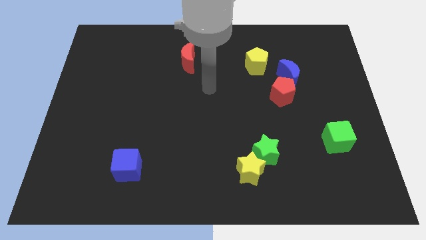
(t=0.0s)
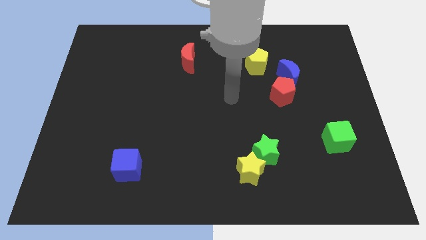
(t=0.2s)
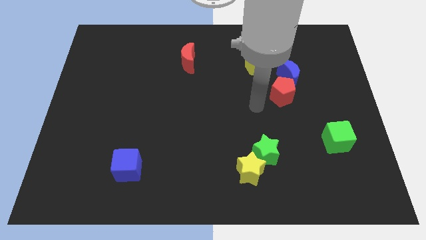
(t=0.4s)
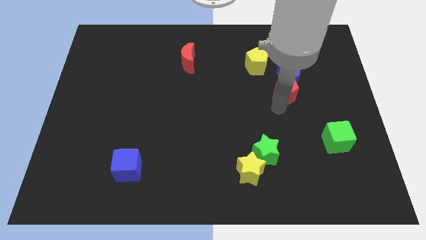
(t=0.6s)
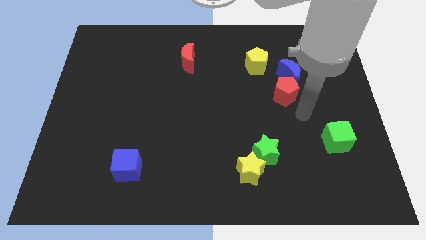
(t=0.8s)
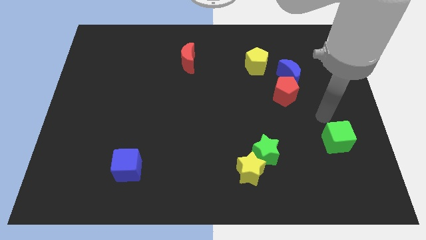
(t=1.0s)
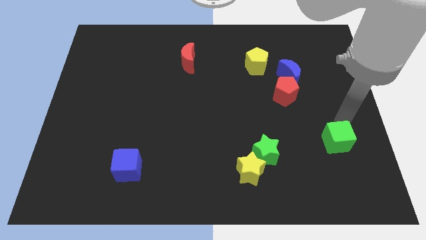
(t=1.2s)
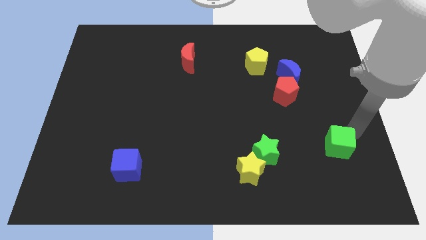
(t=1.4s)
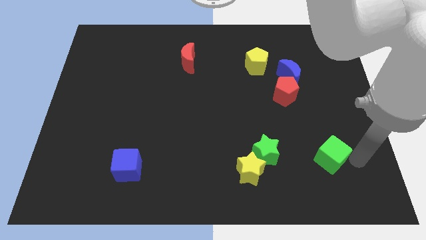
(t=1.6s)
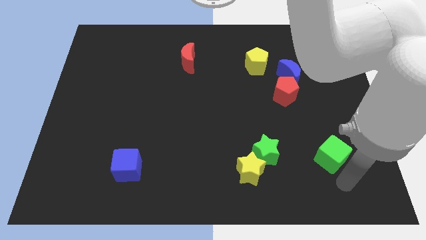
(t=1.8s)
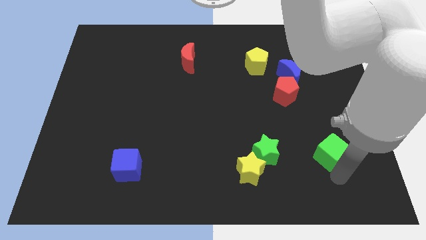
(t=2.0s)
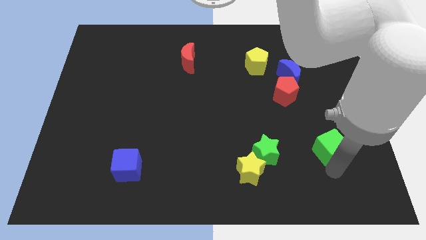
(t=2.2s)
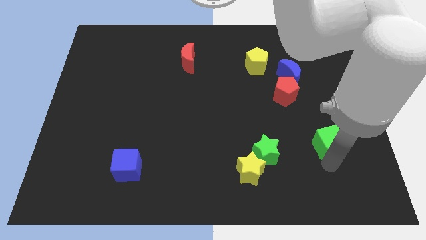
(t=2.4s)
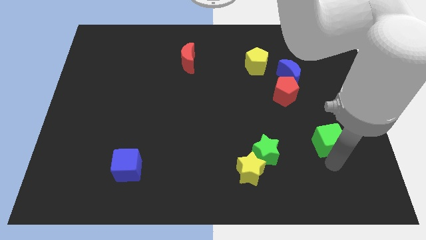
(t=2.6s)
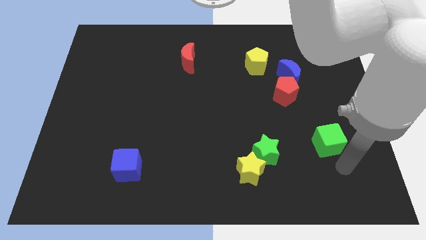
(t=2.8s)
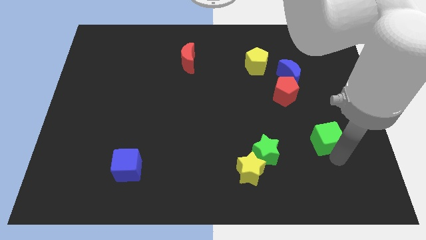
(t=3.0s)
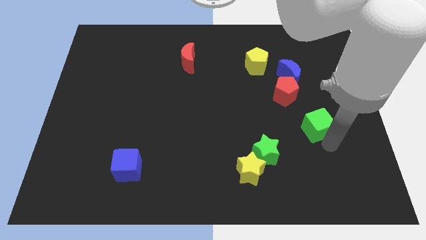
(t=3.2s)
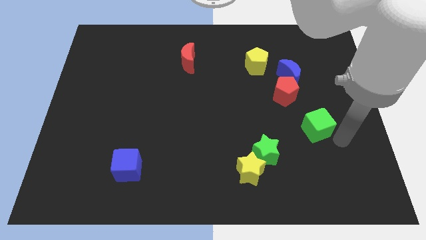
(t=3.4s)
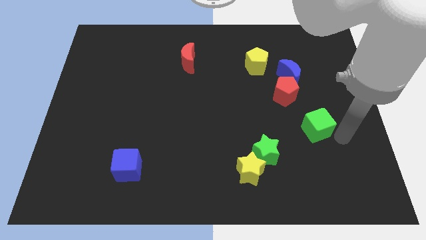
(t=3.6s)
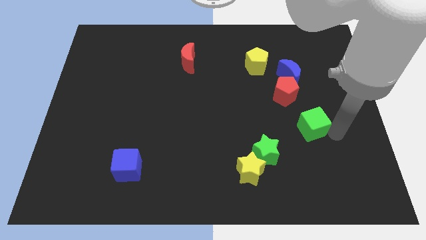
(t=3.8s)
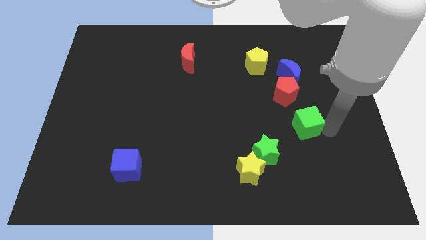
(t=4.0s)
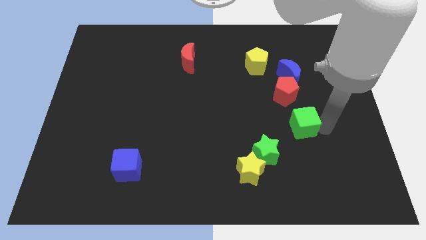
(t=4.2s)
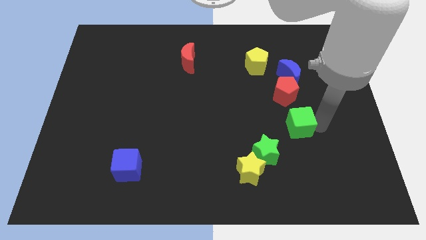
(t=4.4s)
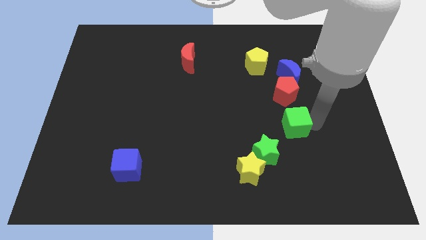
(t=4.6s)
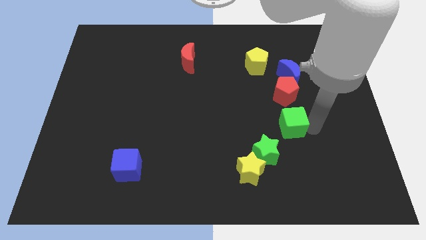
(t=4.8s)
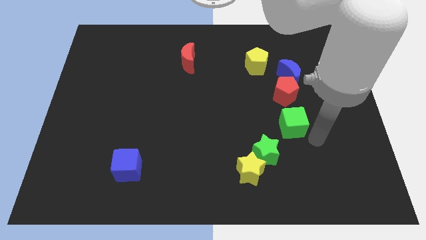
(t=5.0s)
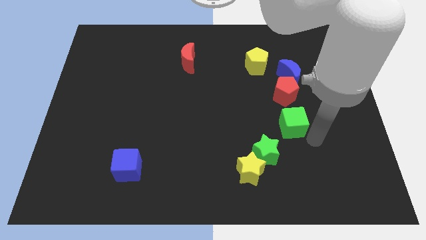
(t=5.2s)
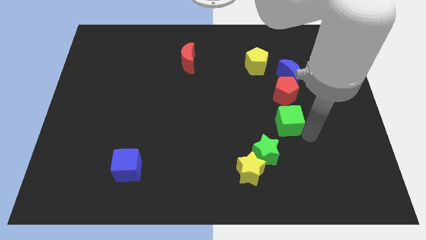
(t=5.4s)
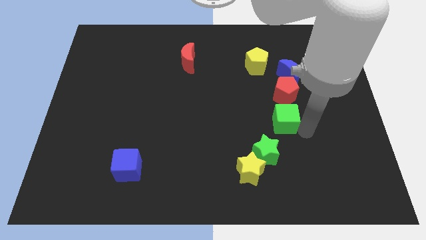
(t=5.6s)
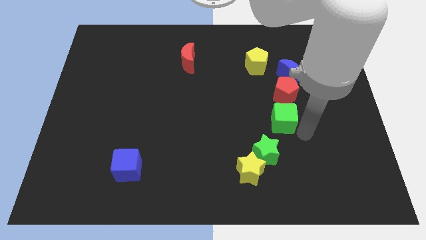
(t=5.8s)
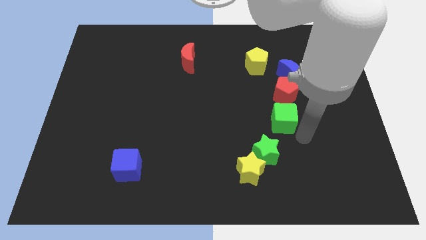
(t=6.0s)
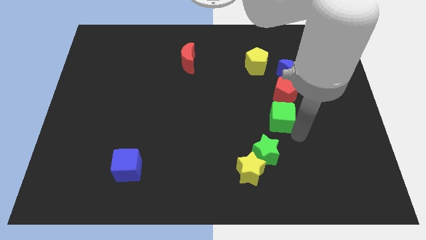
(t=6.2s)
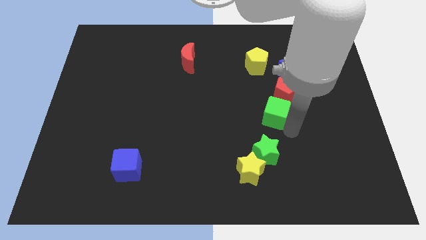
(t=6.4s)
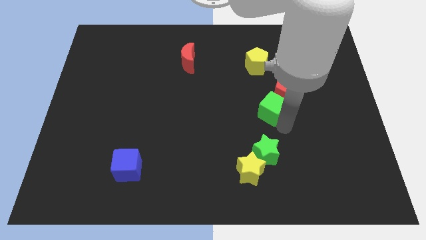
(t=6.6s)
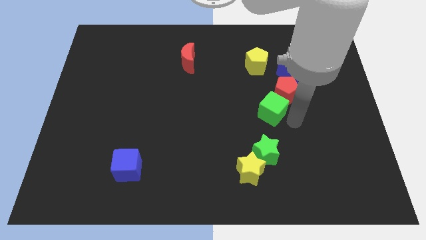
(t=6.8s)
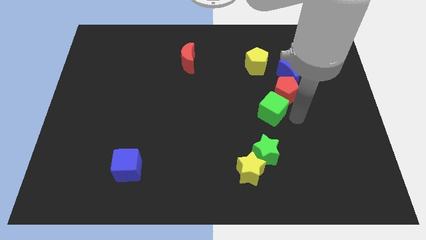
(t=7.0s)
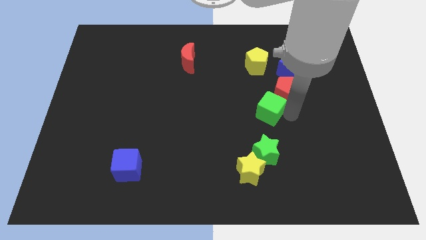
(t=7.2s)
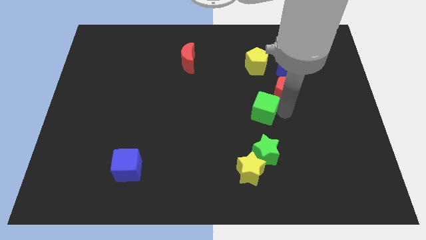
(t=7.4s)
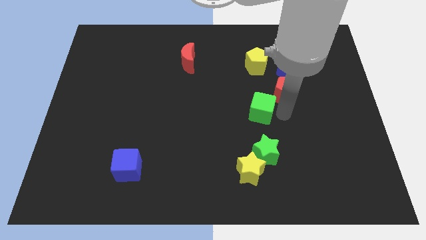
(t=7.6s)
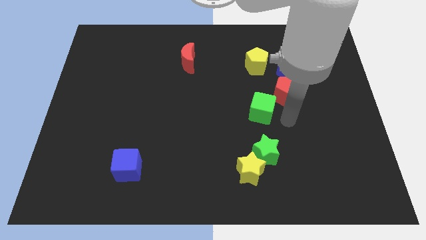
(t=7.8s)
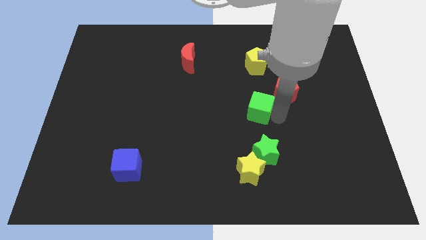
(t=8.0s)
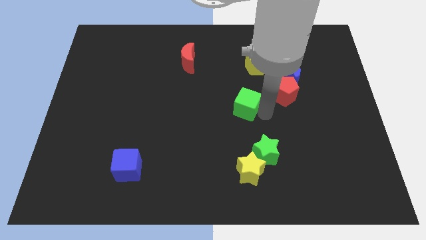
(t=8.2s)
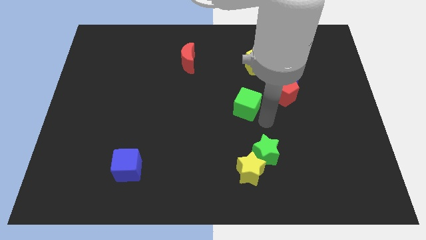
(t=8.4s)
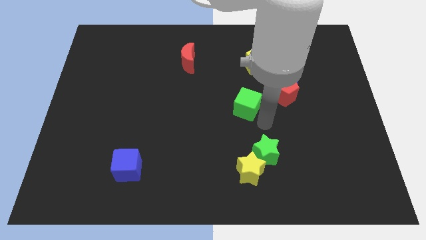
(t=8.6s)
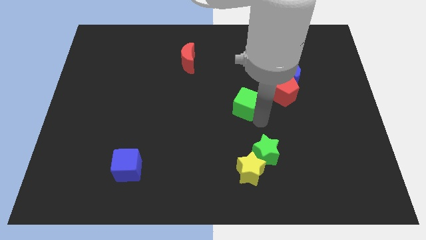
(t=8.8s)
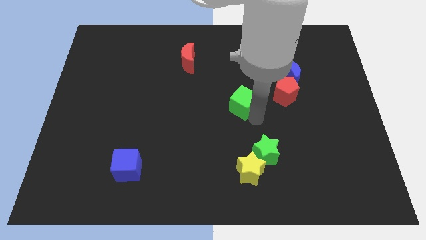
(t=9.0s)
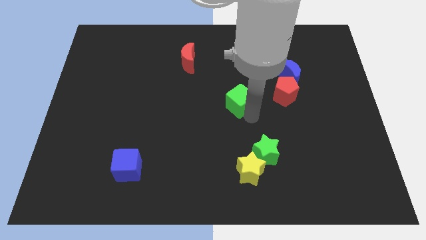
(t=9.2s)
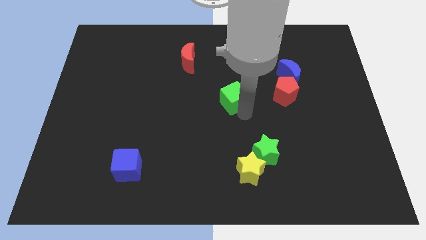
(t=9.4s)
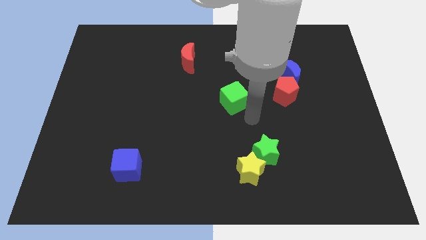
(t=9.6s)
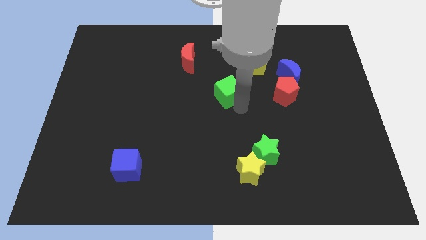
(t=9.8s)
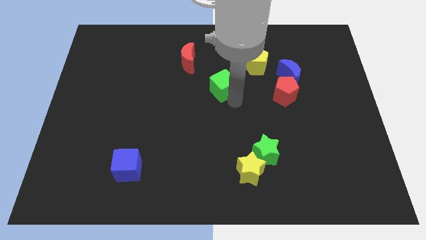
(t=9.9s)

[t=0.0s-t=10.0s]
slide the green cube diagonally down and to the right of the red moon

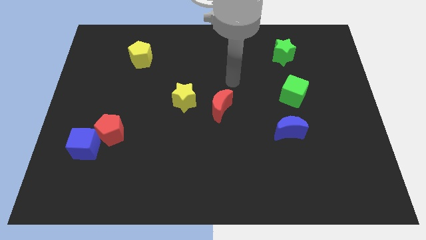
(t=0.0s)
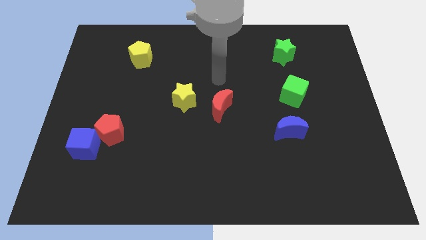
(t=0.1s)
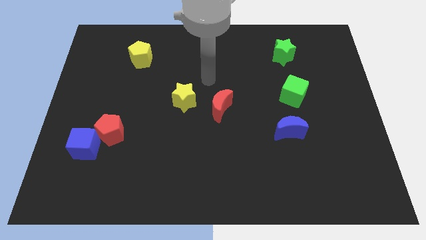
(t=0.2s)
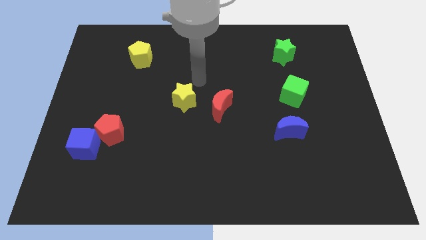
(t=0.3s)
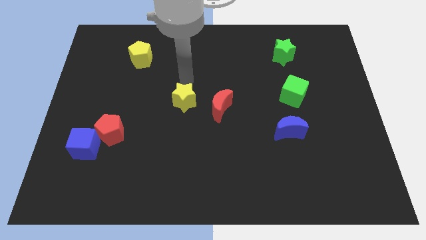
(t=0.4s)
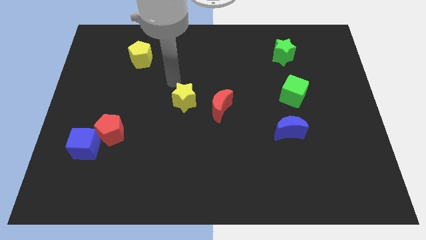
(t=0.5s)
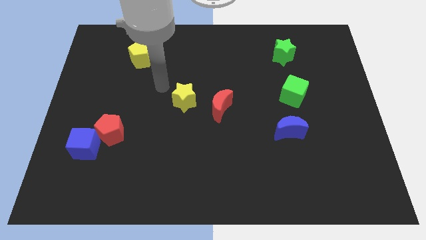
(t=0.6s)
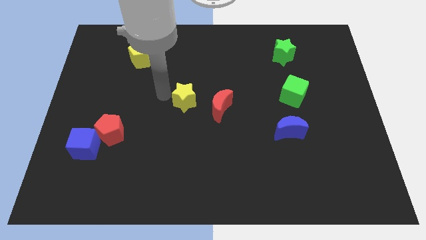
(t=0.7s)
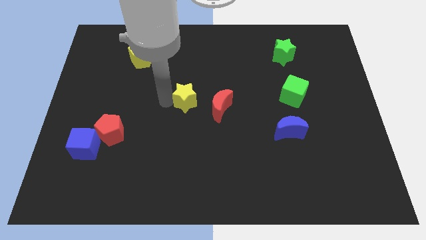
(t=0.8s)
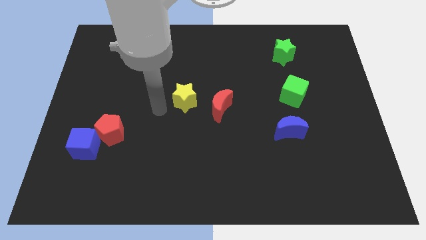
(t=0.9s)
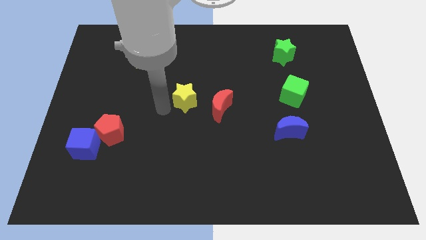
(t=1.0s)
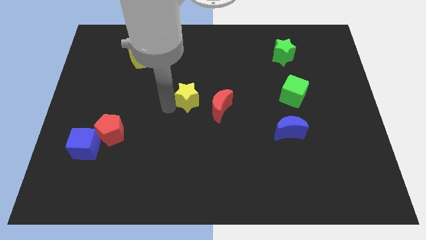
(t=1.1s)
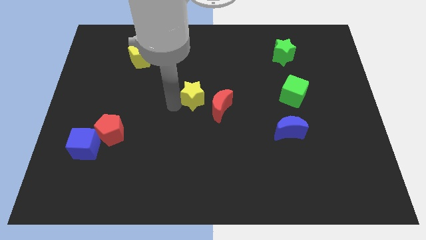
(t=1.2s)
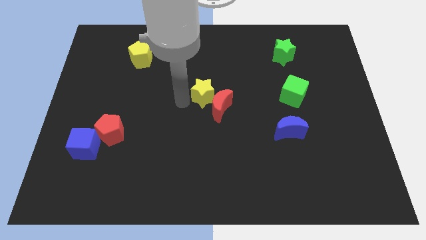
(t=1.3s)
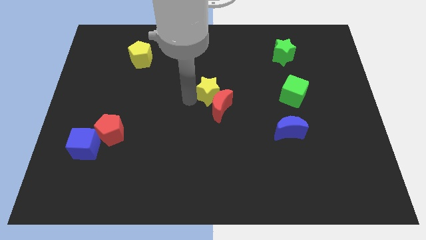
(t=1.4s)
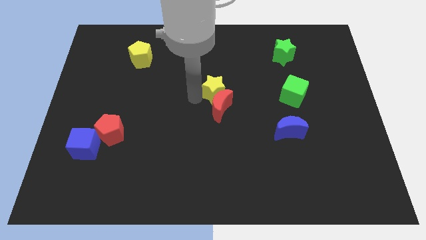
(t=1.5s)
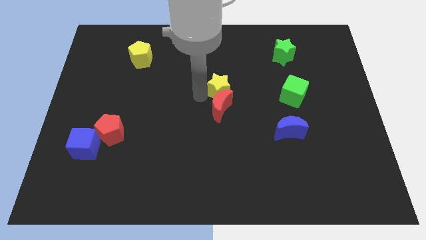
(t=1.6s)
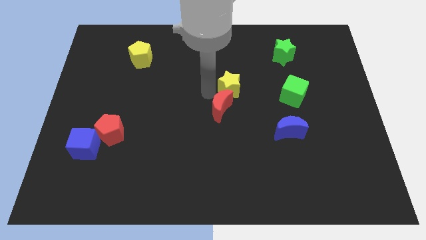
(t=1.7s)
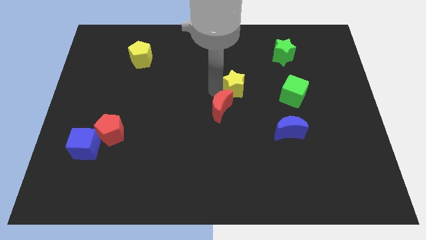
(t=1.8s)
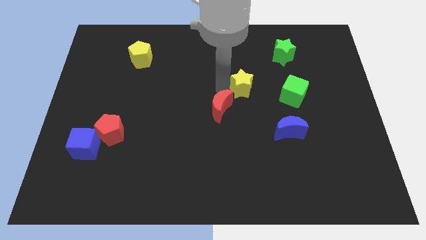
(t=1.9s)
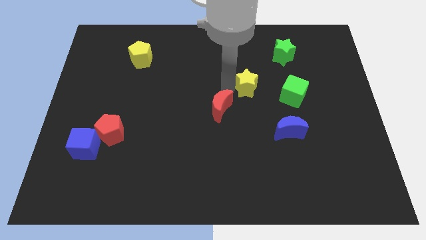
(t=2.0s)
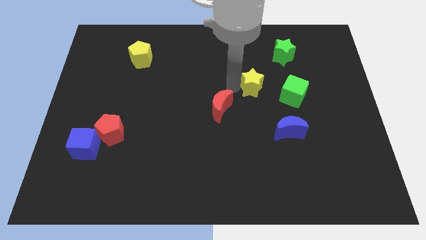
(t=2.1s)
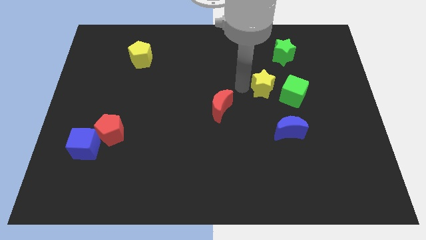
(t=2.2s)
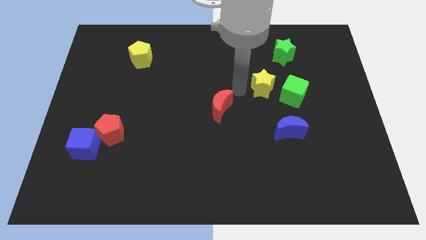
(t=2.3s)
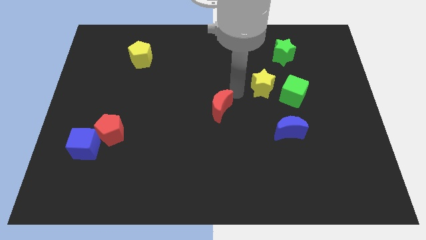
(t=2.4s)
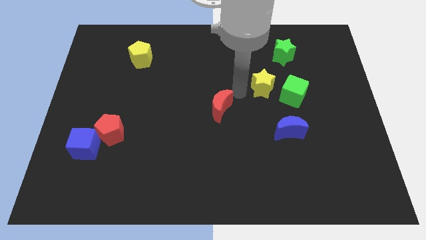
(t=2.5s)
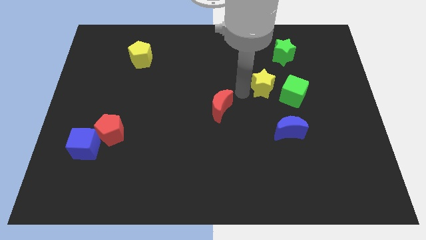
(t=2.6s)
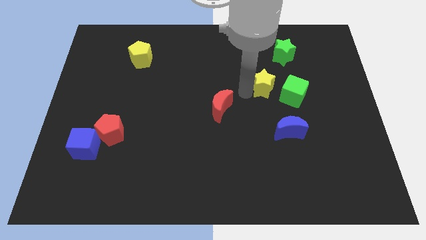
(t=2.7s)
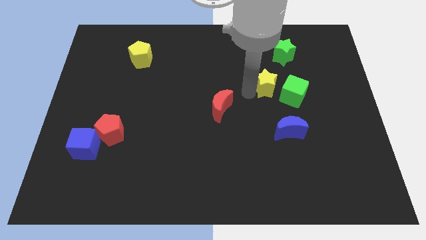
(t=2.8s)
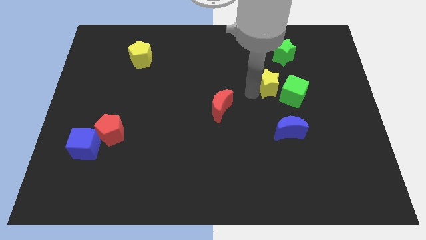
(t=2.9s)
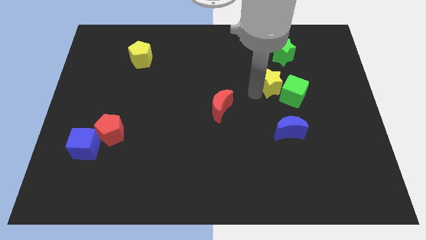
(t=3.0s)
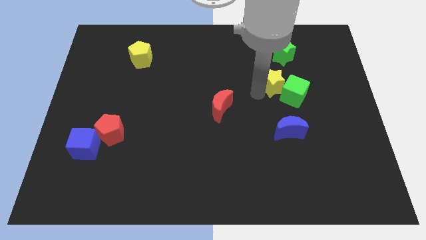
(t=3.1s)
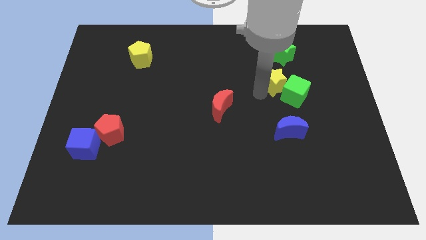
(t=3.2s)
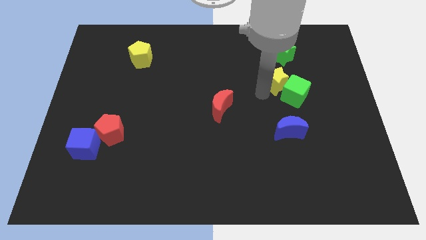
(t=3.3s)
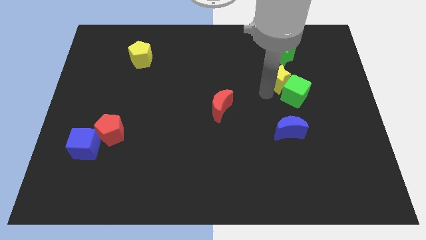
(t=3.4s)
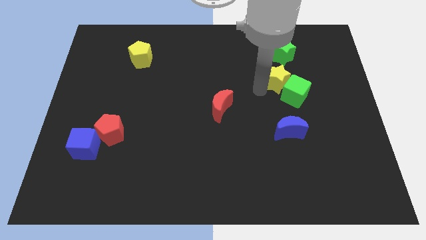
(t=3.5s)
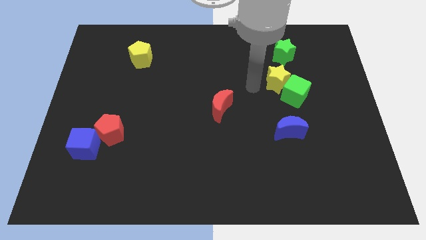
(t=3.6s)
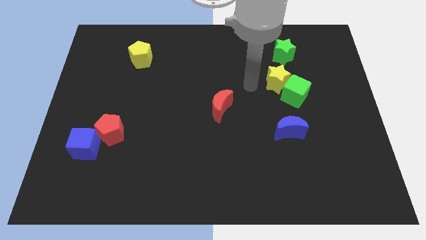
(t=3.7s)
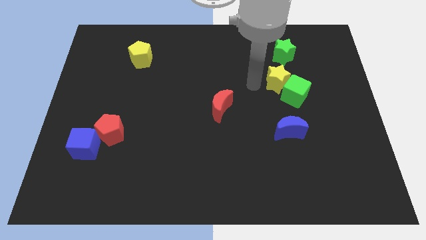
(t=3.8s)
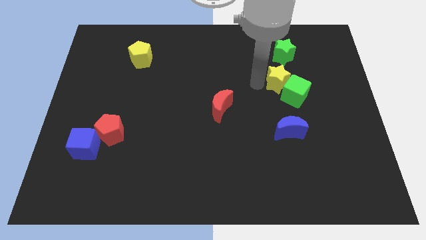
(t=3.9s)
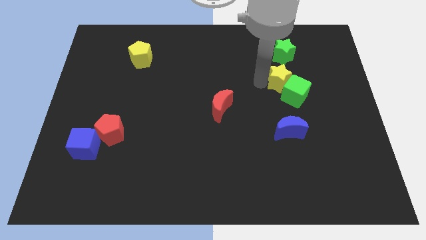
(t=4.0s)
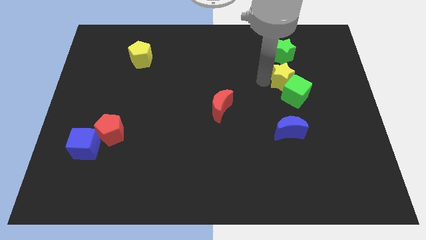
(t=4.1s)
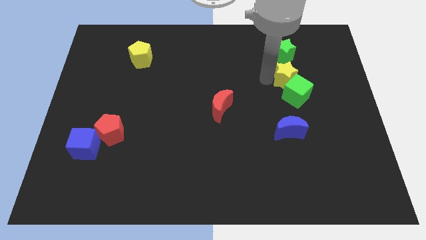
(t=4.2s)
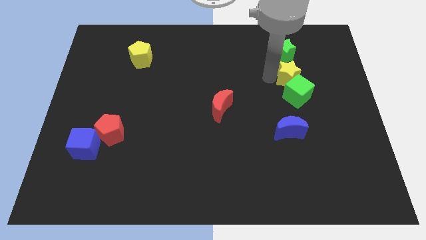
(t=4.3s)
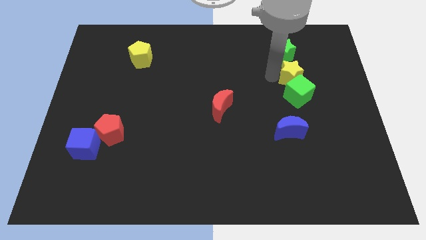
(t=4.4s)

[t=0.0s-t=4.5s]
put the yellow star diagonally up and to the right of the green cube
